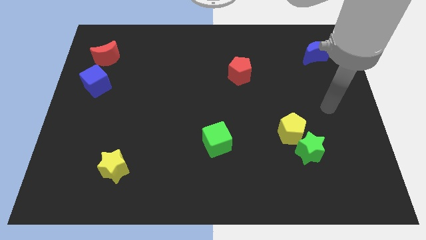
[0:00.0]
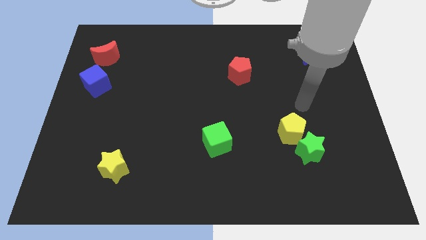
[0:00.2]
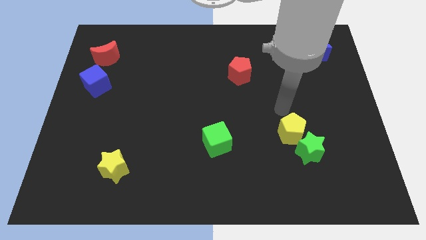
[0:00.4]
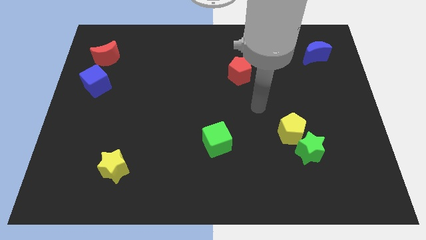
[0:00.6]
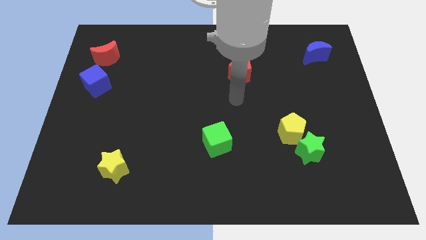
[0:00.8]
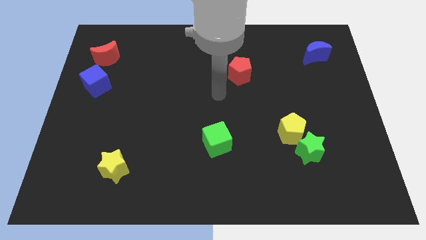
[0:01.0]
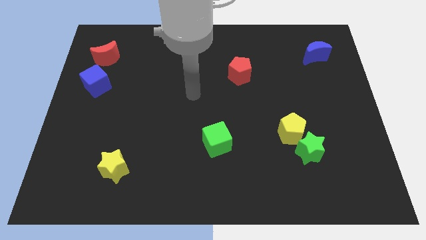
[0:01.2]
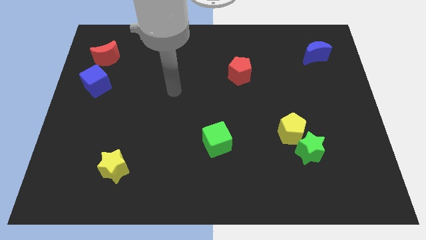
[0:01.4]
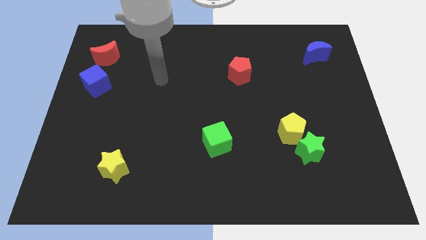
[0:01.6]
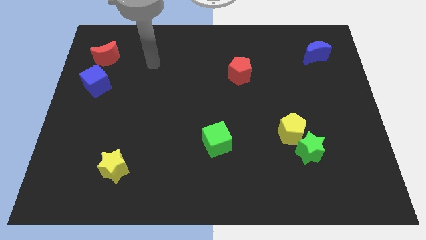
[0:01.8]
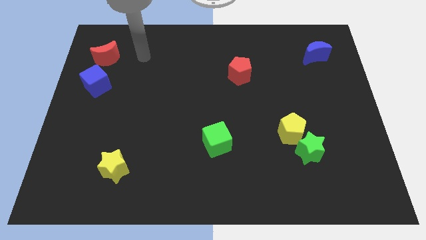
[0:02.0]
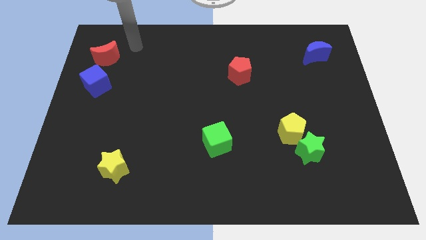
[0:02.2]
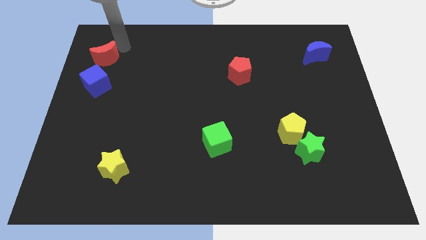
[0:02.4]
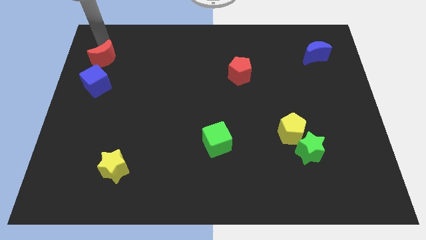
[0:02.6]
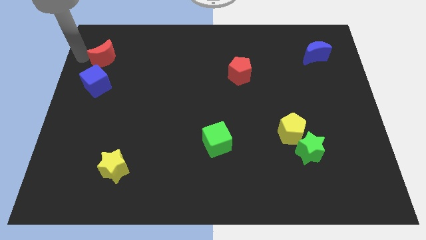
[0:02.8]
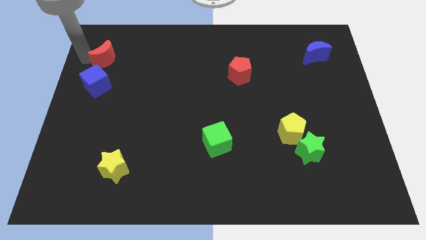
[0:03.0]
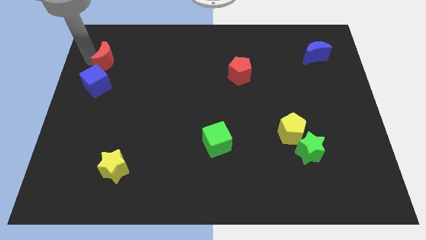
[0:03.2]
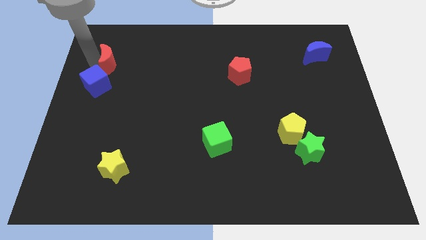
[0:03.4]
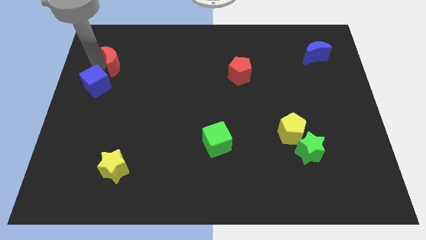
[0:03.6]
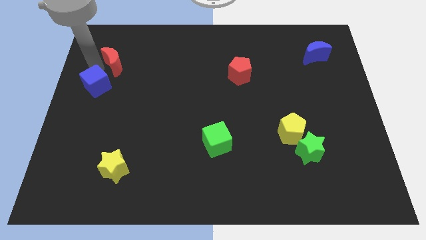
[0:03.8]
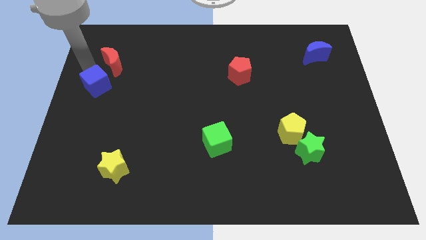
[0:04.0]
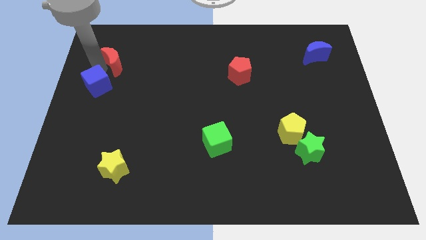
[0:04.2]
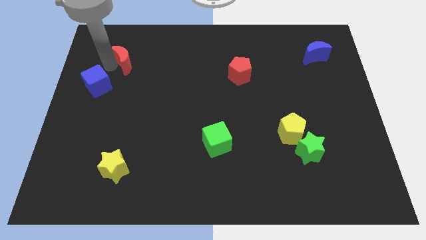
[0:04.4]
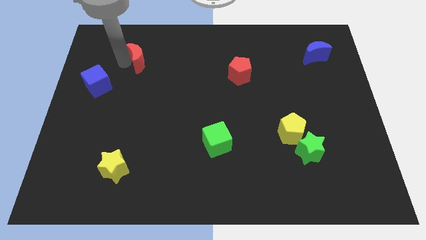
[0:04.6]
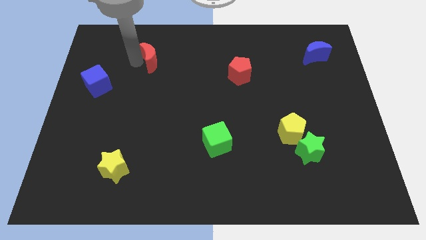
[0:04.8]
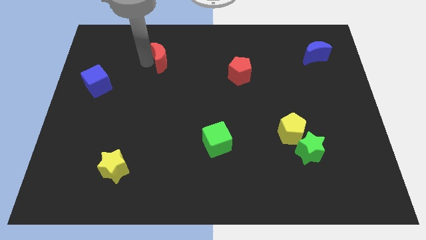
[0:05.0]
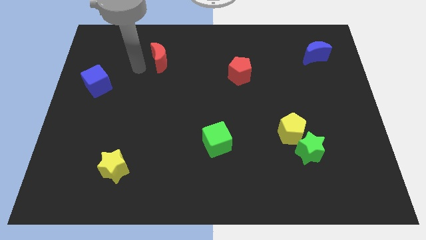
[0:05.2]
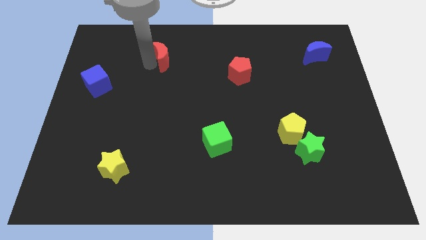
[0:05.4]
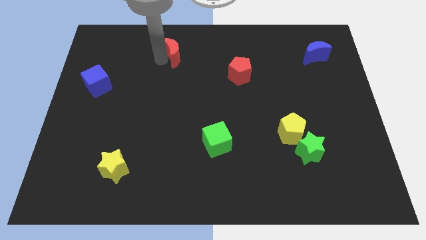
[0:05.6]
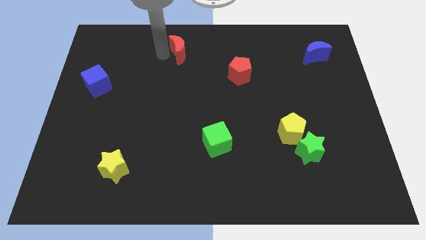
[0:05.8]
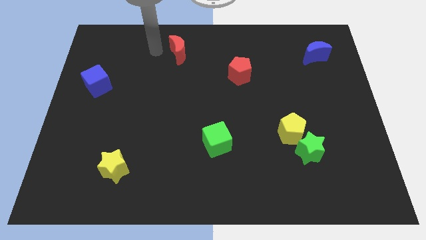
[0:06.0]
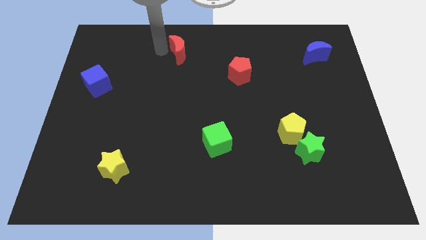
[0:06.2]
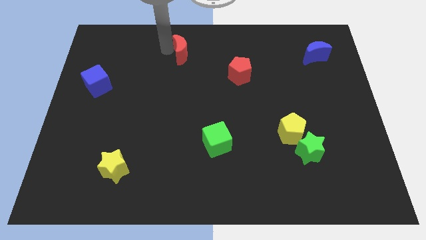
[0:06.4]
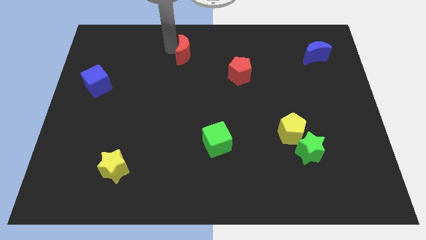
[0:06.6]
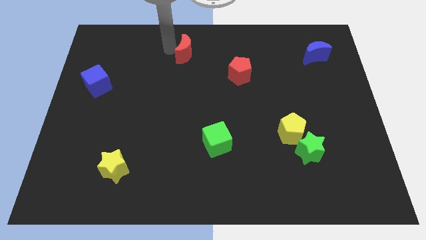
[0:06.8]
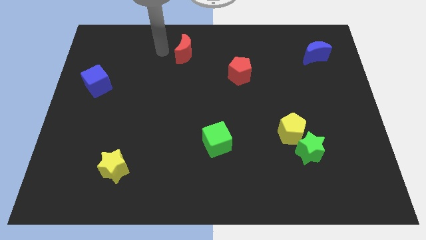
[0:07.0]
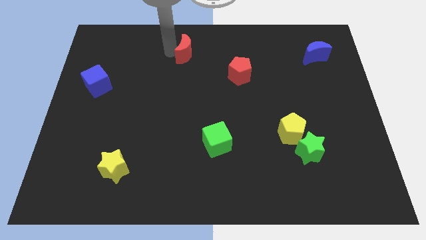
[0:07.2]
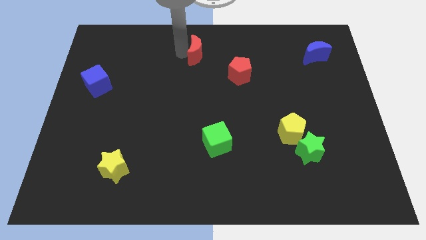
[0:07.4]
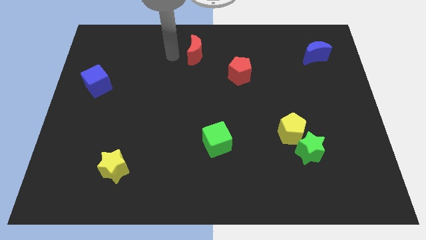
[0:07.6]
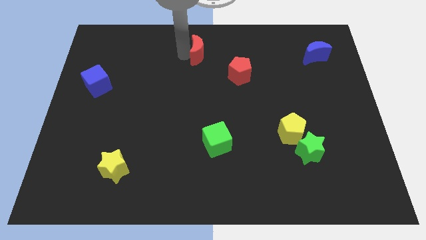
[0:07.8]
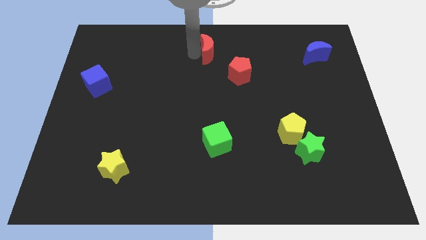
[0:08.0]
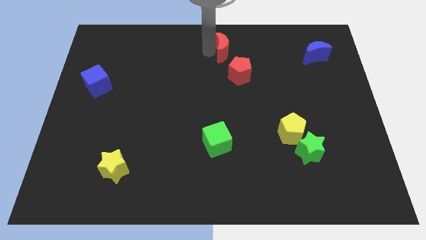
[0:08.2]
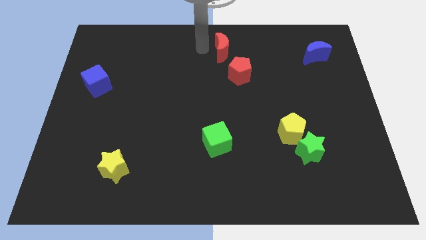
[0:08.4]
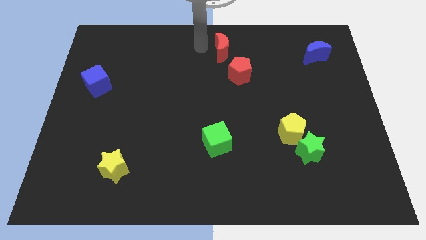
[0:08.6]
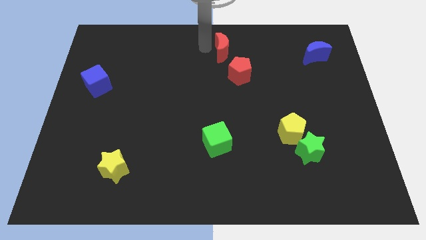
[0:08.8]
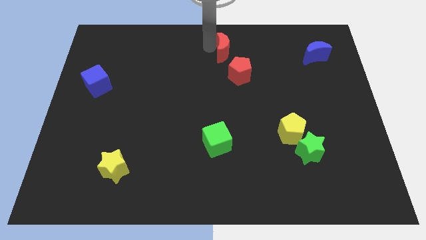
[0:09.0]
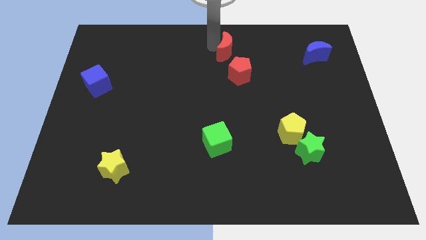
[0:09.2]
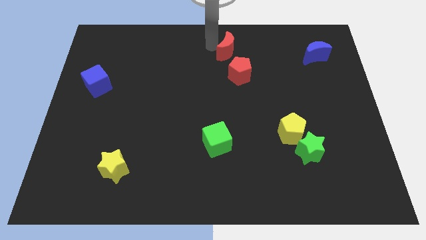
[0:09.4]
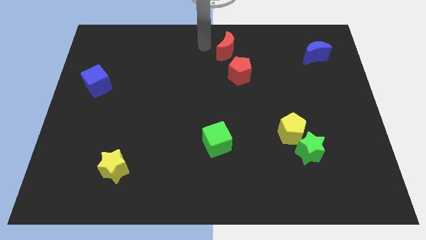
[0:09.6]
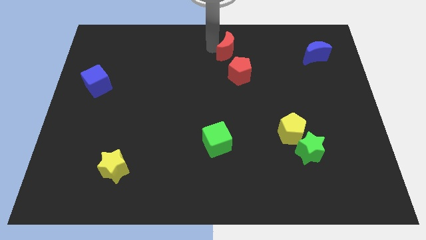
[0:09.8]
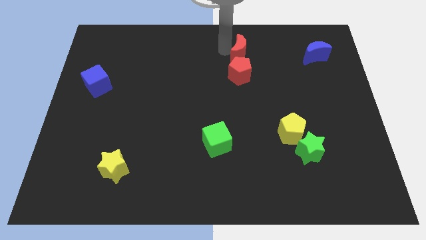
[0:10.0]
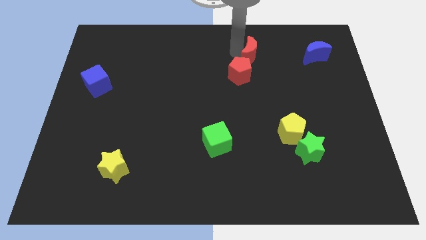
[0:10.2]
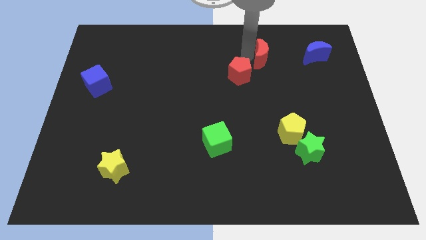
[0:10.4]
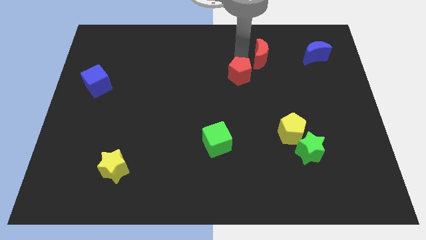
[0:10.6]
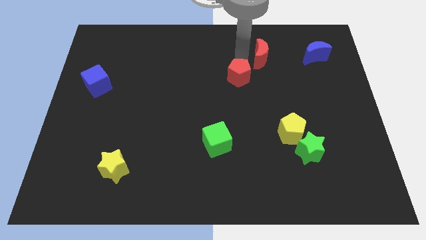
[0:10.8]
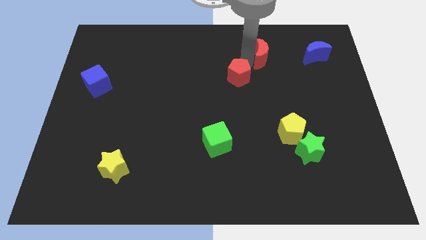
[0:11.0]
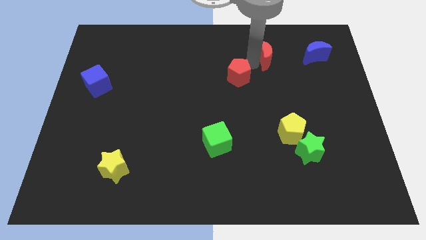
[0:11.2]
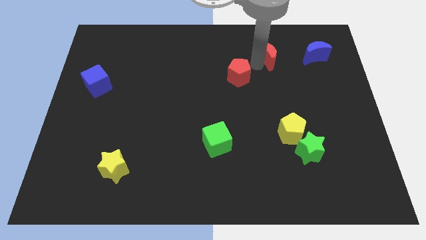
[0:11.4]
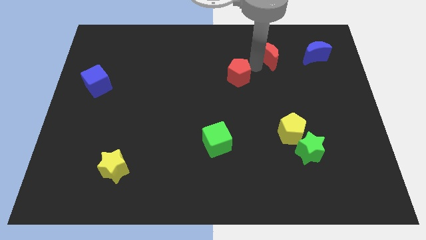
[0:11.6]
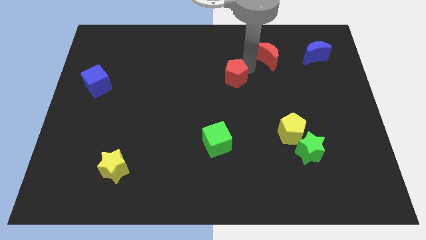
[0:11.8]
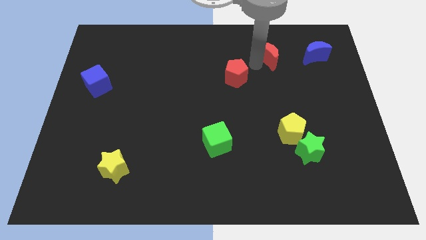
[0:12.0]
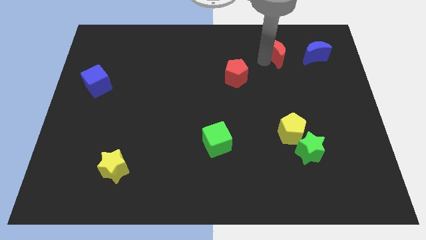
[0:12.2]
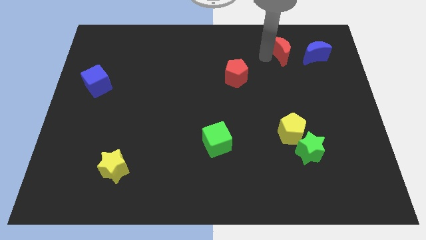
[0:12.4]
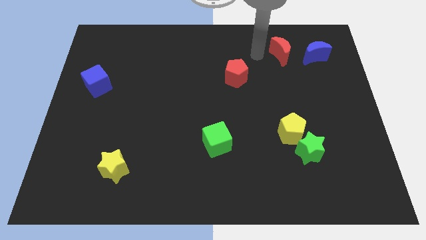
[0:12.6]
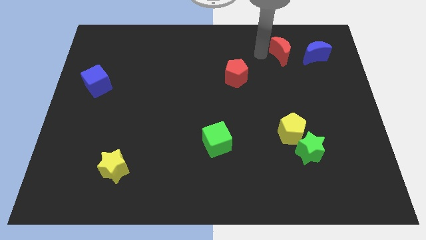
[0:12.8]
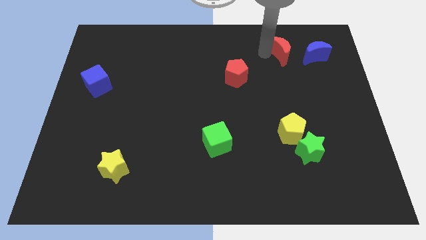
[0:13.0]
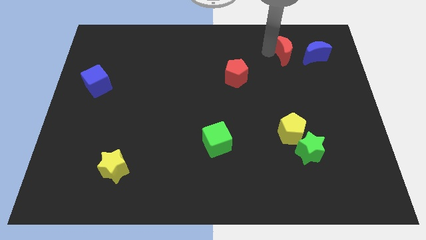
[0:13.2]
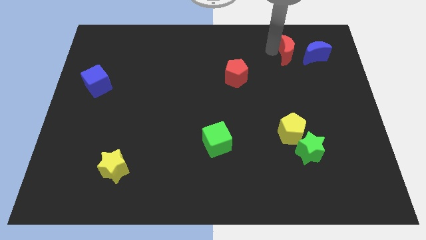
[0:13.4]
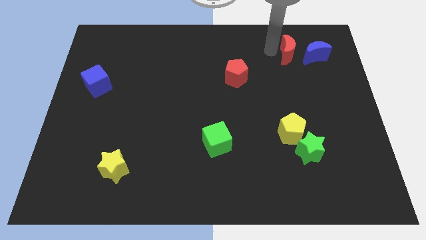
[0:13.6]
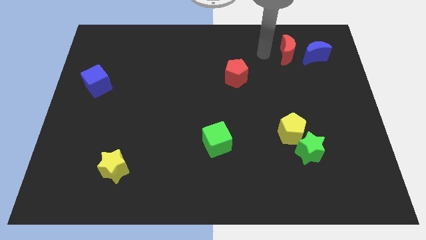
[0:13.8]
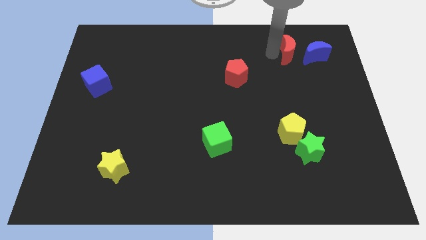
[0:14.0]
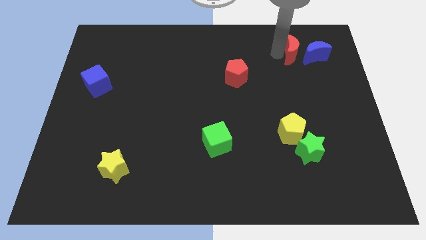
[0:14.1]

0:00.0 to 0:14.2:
slide the red moon towards the blue moon
